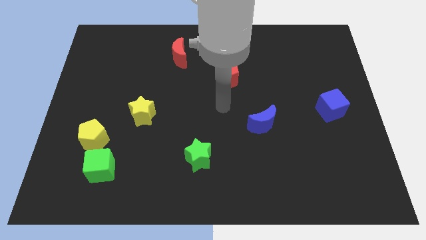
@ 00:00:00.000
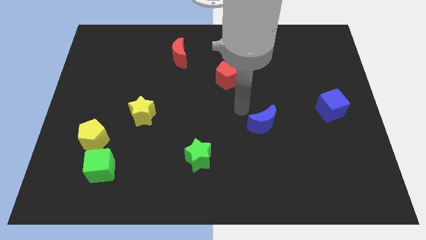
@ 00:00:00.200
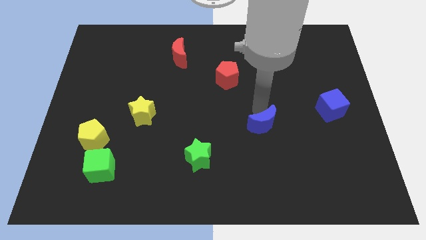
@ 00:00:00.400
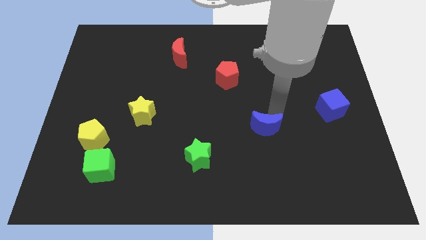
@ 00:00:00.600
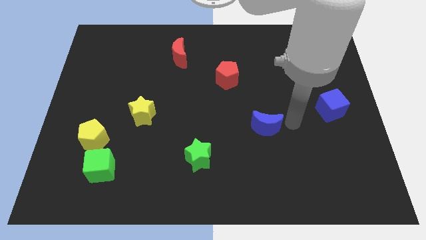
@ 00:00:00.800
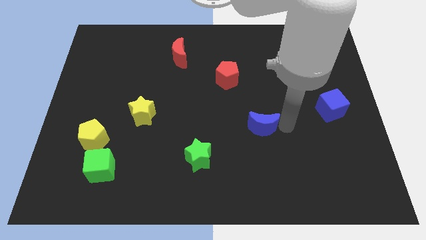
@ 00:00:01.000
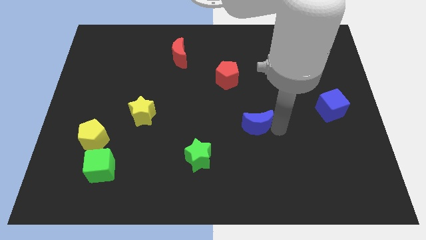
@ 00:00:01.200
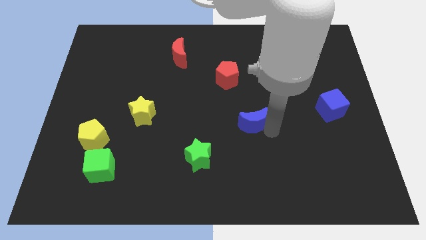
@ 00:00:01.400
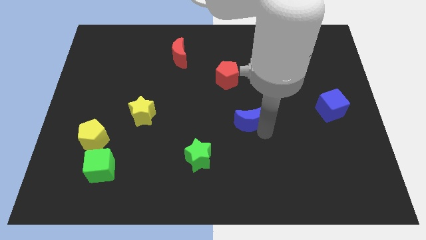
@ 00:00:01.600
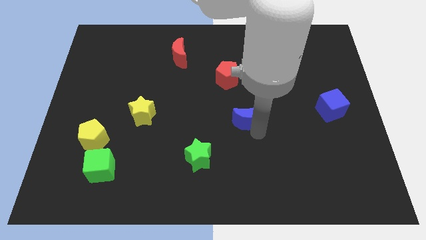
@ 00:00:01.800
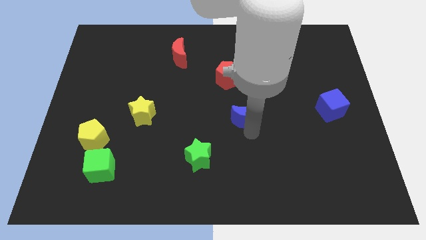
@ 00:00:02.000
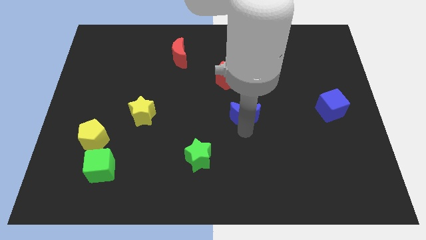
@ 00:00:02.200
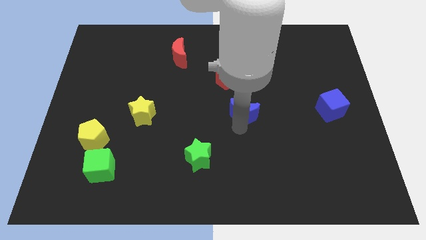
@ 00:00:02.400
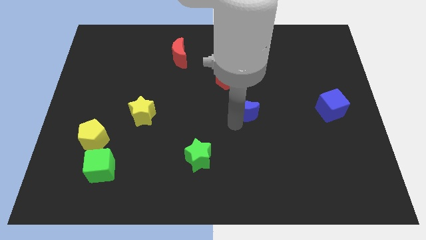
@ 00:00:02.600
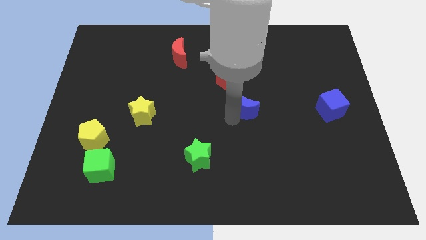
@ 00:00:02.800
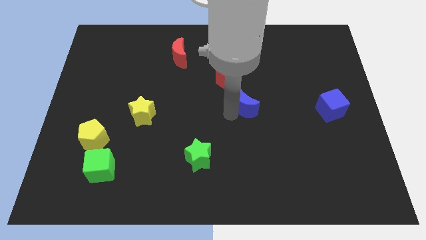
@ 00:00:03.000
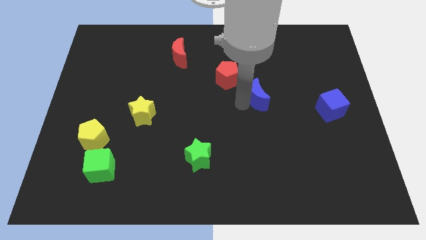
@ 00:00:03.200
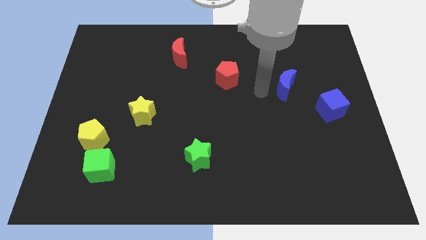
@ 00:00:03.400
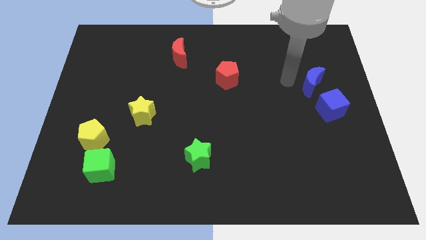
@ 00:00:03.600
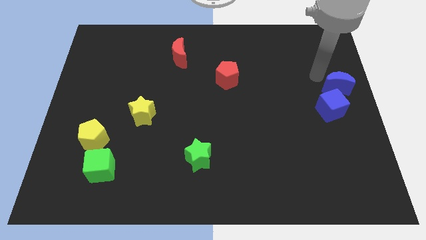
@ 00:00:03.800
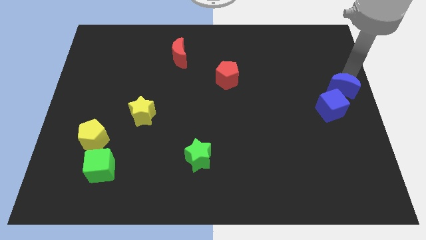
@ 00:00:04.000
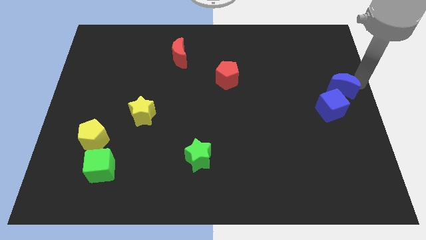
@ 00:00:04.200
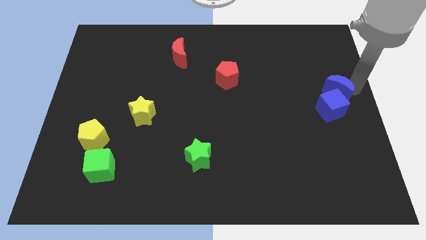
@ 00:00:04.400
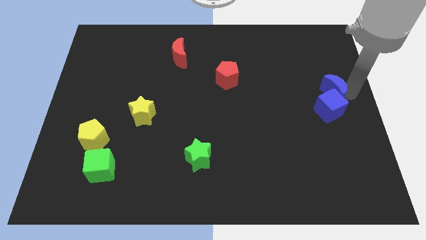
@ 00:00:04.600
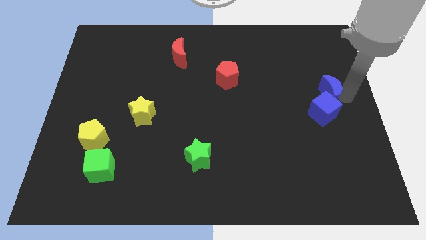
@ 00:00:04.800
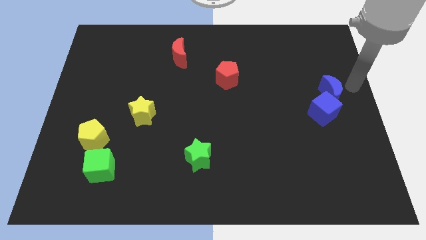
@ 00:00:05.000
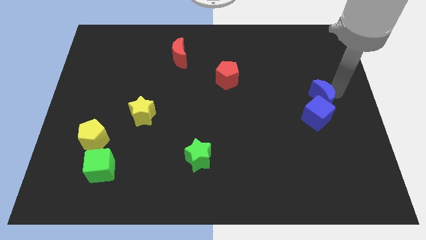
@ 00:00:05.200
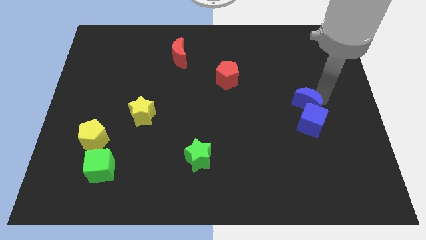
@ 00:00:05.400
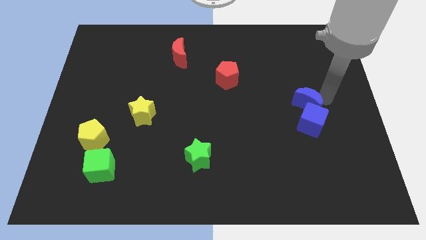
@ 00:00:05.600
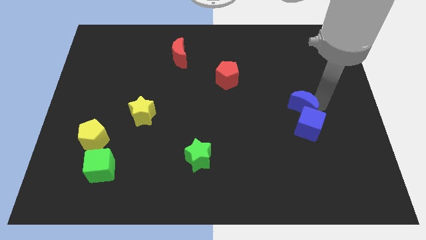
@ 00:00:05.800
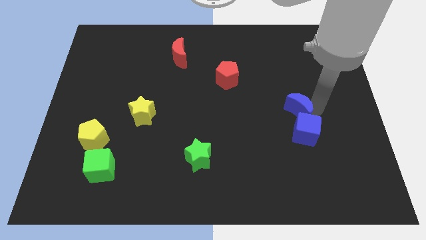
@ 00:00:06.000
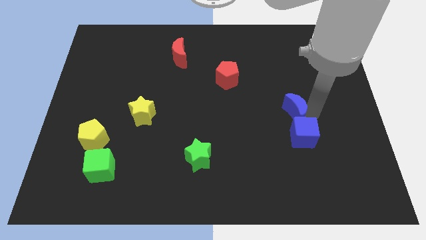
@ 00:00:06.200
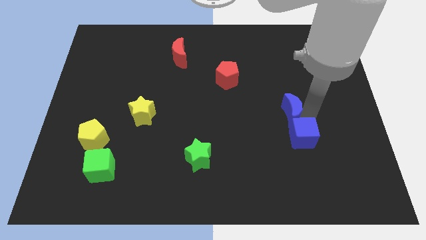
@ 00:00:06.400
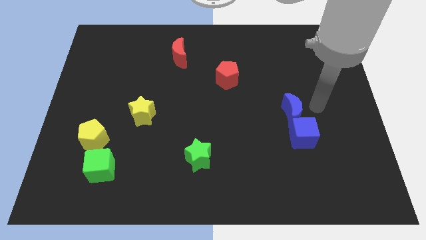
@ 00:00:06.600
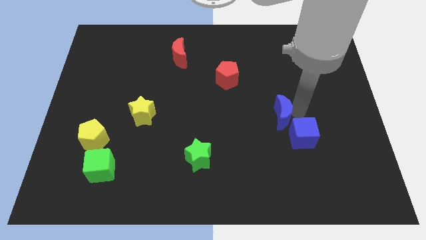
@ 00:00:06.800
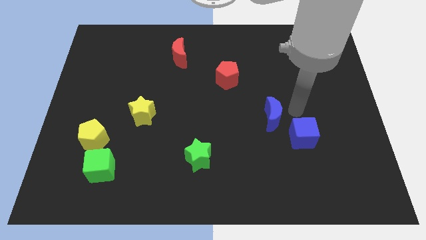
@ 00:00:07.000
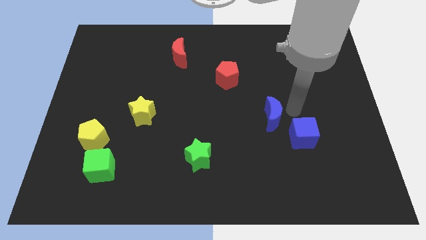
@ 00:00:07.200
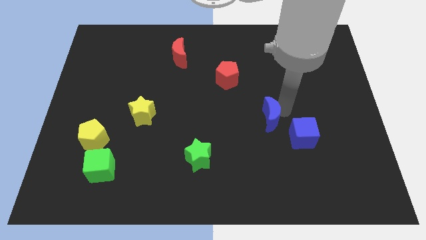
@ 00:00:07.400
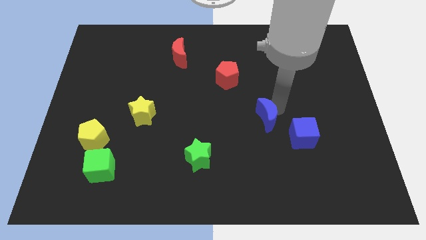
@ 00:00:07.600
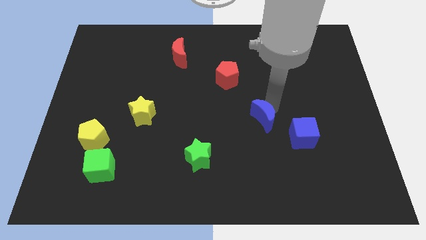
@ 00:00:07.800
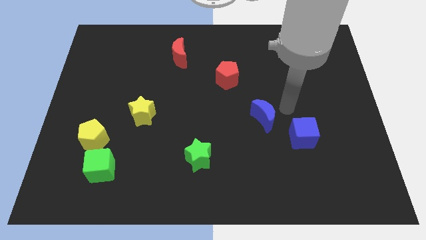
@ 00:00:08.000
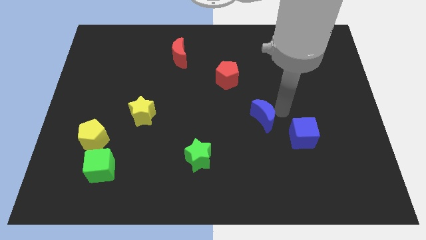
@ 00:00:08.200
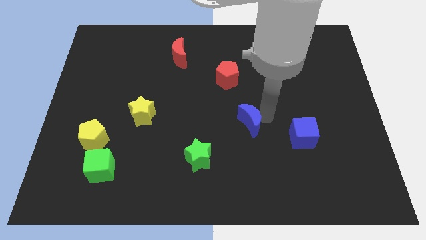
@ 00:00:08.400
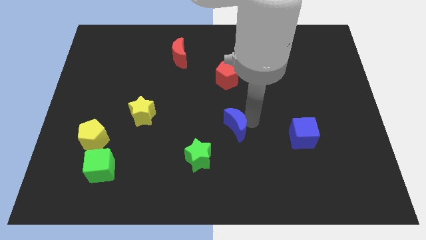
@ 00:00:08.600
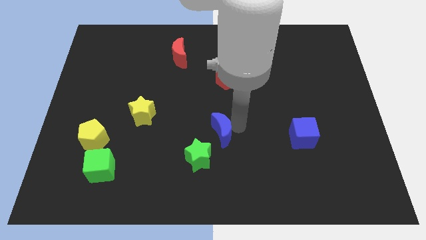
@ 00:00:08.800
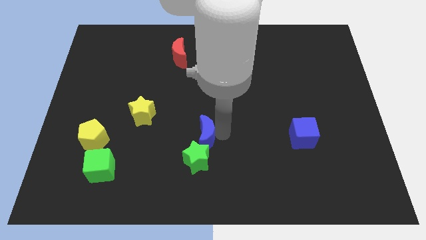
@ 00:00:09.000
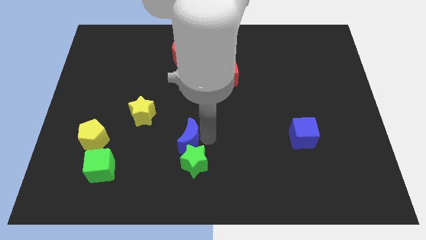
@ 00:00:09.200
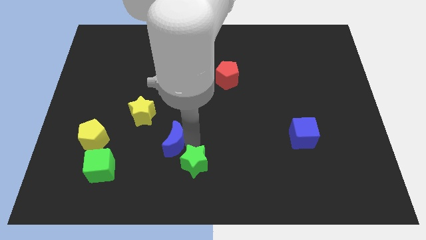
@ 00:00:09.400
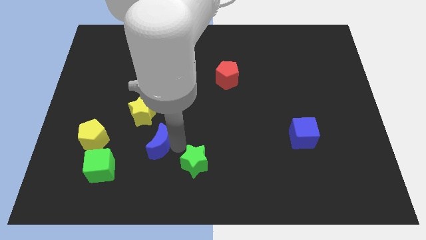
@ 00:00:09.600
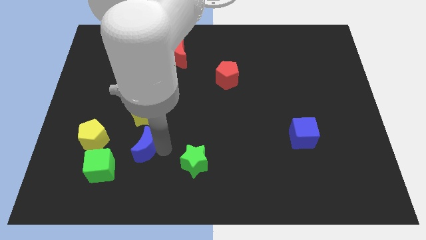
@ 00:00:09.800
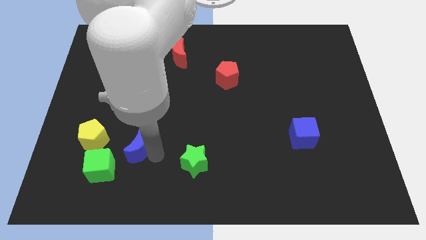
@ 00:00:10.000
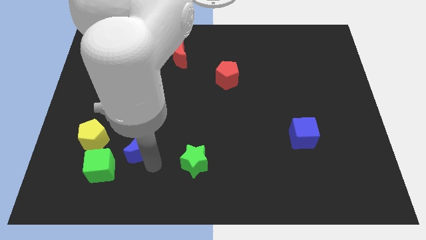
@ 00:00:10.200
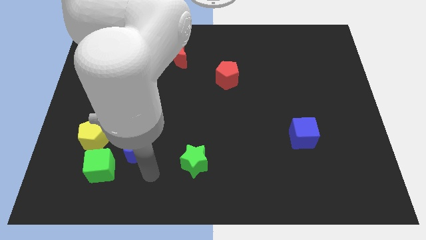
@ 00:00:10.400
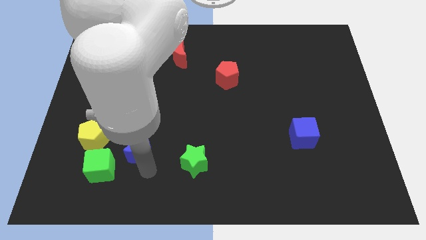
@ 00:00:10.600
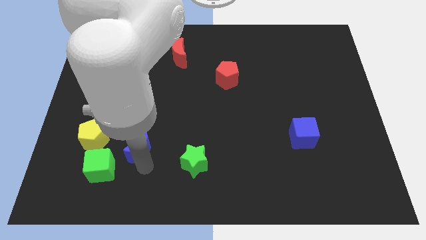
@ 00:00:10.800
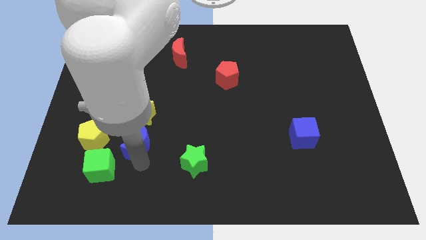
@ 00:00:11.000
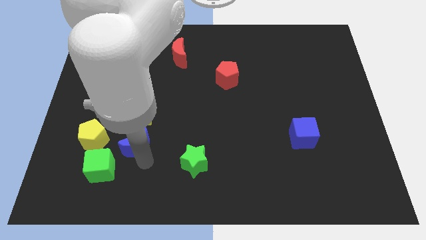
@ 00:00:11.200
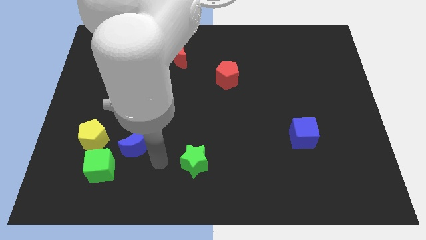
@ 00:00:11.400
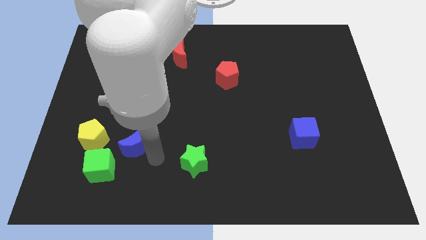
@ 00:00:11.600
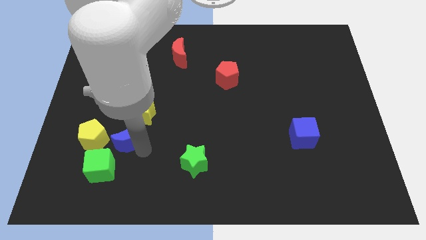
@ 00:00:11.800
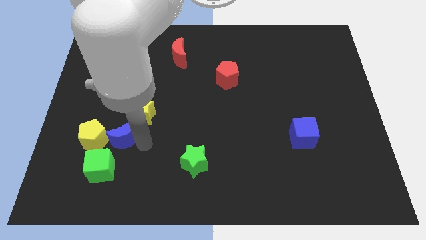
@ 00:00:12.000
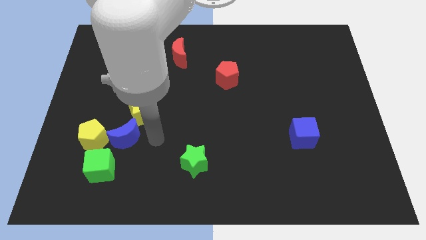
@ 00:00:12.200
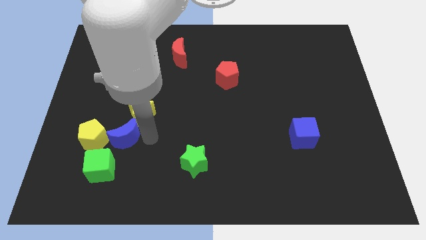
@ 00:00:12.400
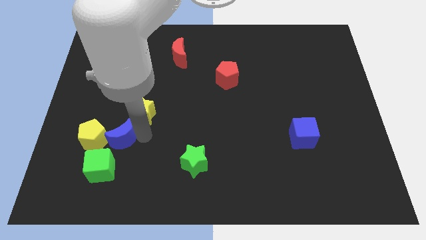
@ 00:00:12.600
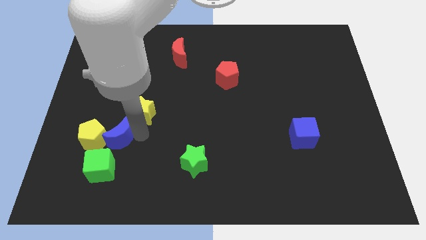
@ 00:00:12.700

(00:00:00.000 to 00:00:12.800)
slide the blue moon close to the yellow pentagon

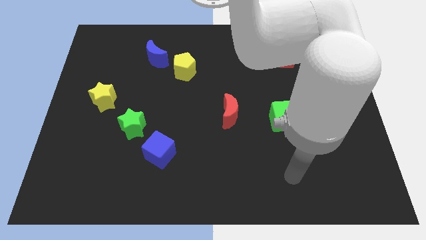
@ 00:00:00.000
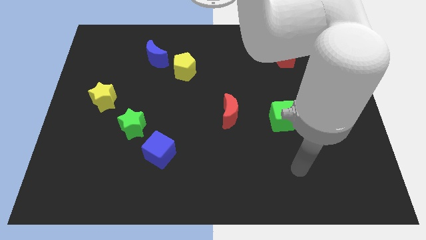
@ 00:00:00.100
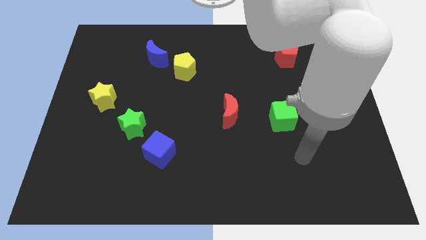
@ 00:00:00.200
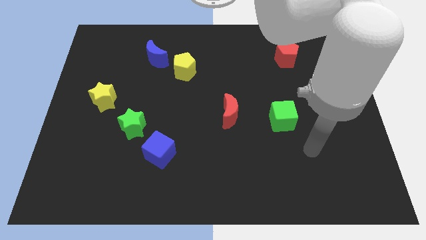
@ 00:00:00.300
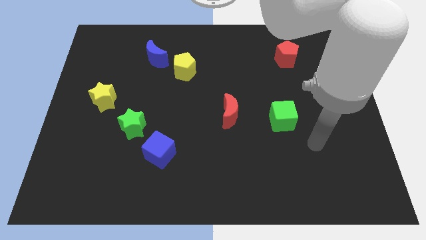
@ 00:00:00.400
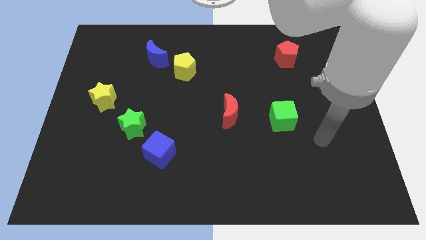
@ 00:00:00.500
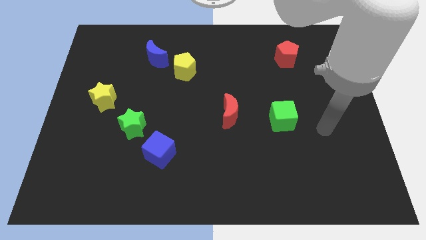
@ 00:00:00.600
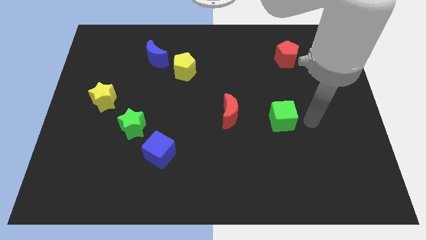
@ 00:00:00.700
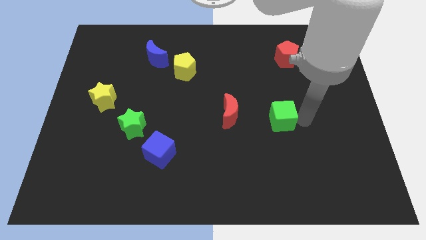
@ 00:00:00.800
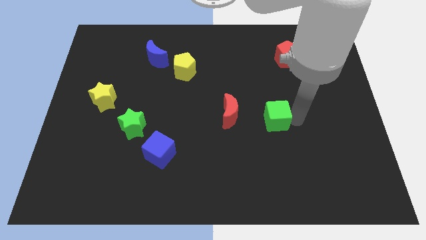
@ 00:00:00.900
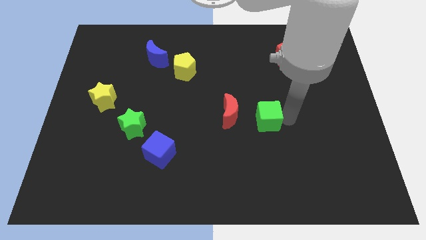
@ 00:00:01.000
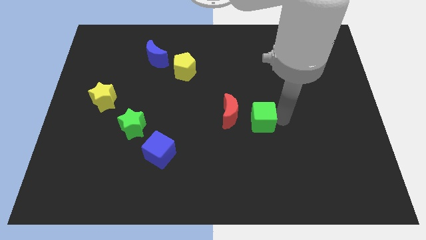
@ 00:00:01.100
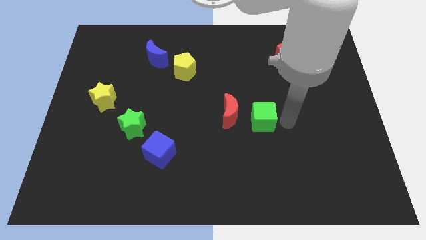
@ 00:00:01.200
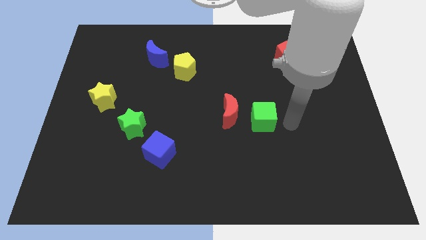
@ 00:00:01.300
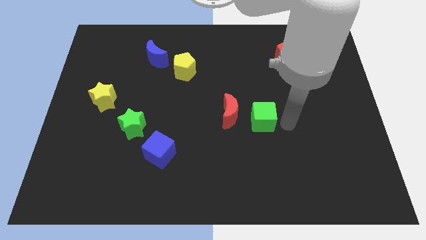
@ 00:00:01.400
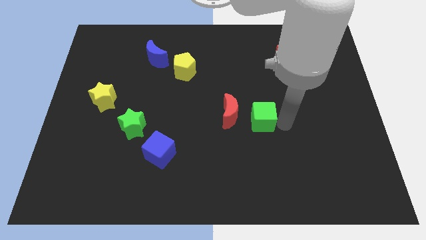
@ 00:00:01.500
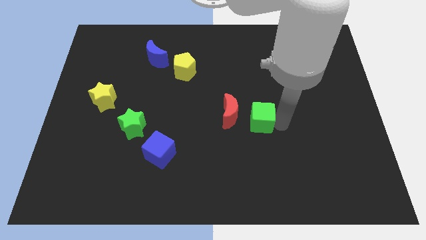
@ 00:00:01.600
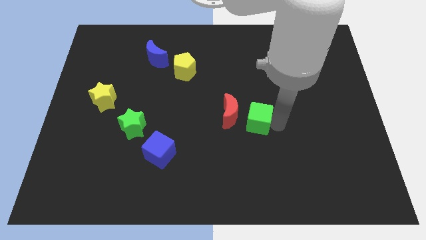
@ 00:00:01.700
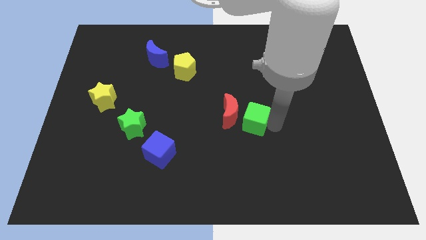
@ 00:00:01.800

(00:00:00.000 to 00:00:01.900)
put the green cube towards the red moon
